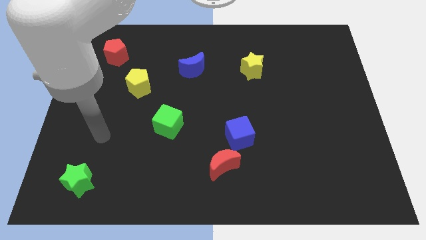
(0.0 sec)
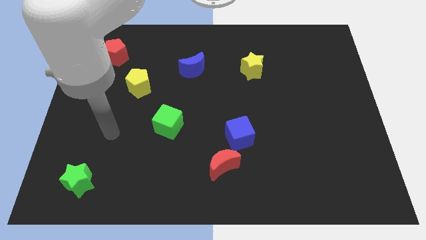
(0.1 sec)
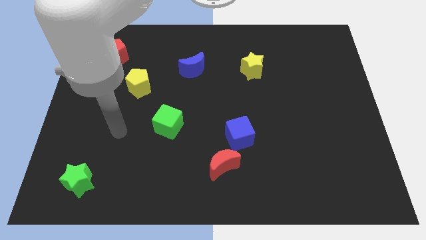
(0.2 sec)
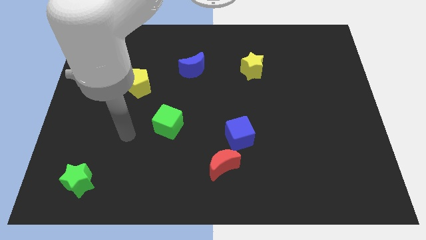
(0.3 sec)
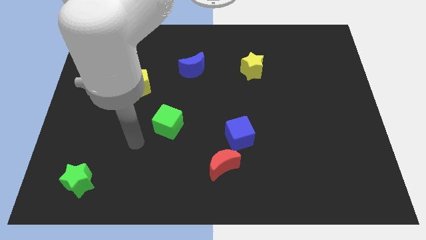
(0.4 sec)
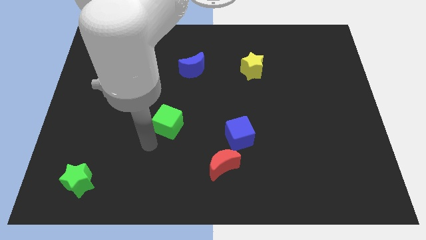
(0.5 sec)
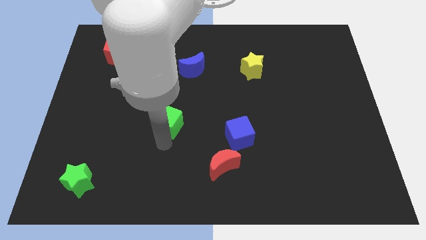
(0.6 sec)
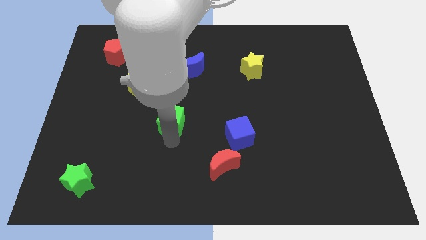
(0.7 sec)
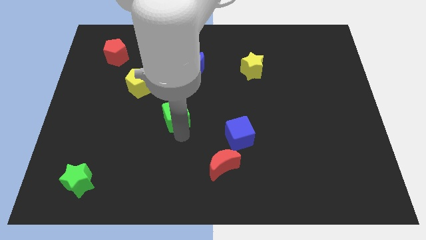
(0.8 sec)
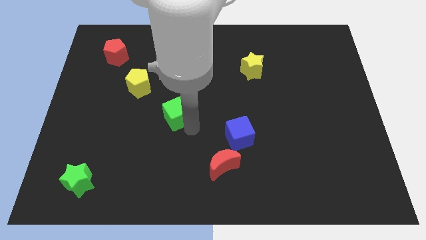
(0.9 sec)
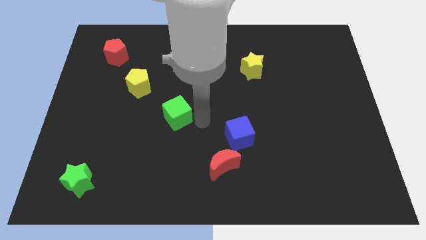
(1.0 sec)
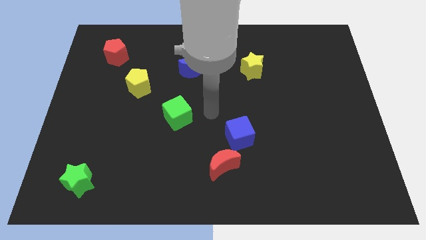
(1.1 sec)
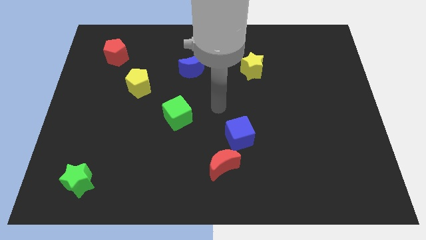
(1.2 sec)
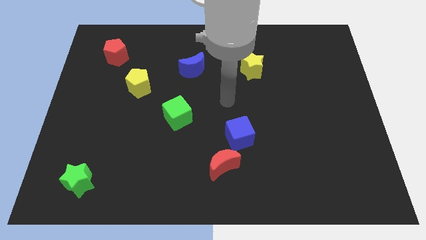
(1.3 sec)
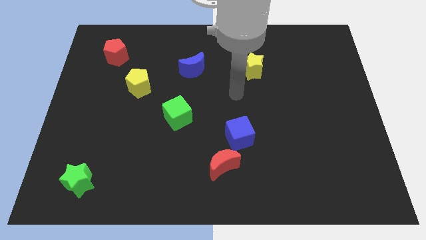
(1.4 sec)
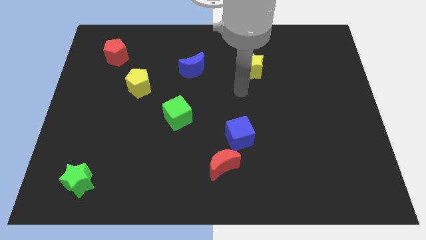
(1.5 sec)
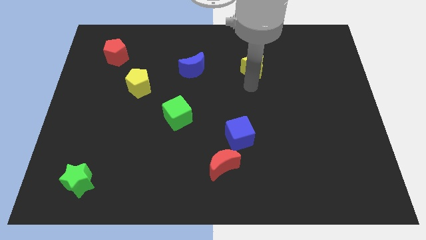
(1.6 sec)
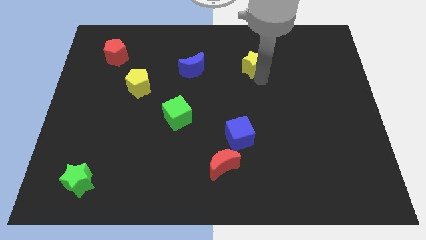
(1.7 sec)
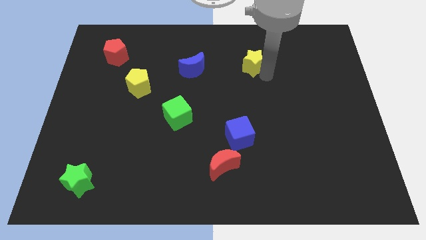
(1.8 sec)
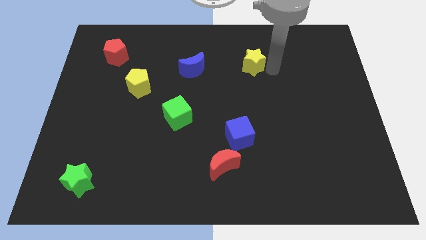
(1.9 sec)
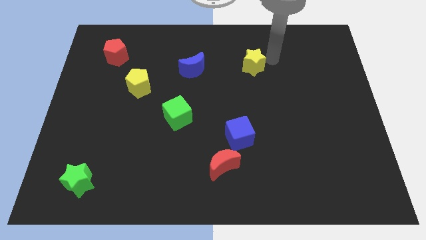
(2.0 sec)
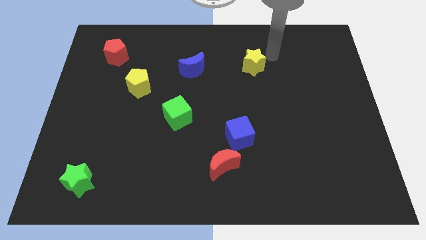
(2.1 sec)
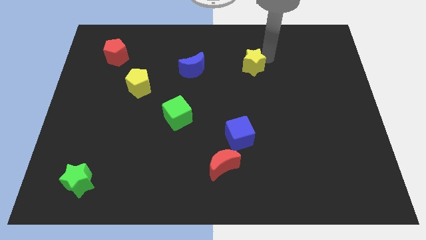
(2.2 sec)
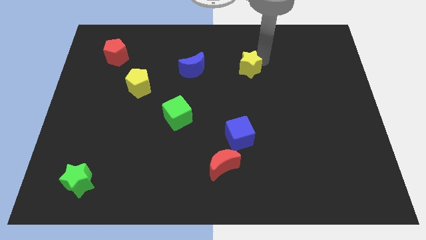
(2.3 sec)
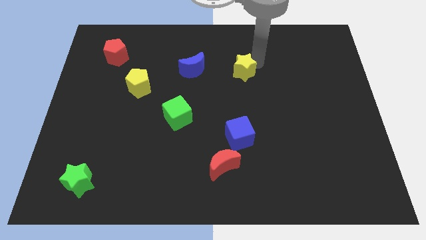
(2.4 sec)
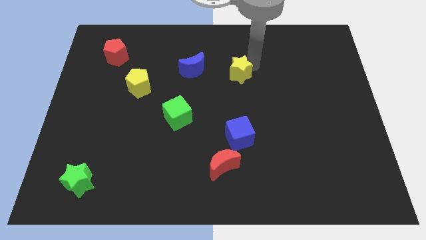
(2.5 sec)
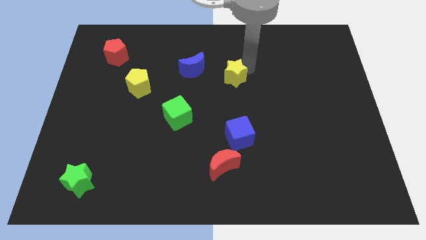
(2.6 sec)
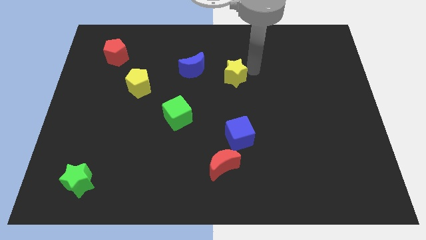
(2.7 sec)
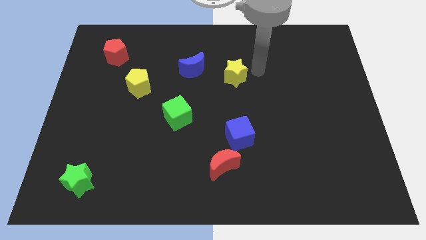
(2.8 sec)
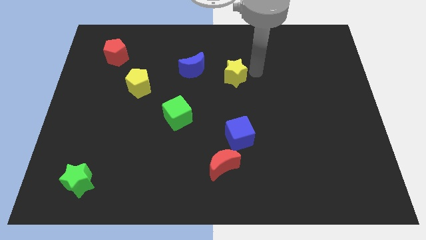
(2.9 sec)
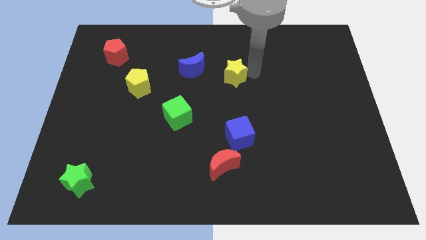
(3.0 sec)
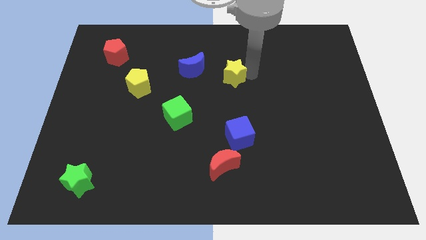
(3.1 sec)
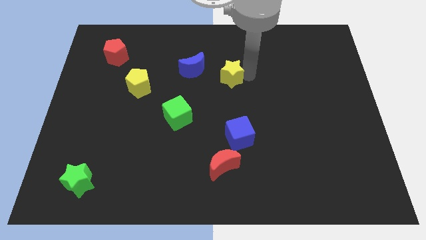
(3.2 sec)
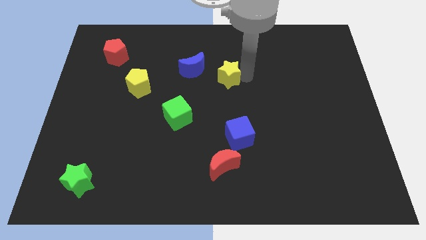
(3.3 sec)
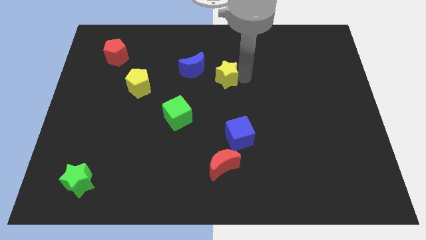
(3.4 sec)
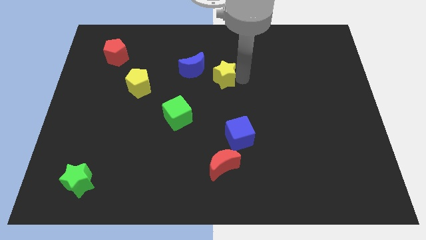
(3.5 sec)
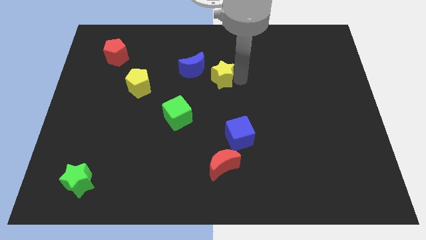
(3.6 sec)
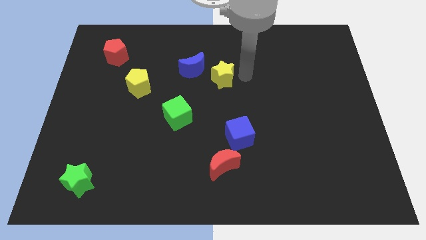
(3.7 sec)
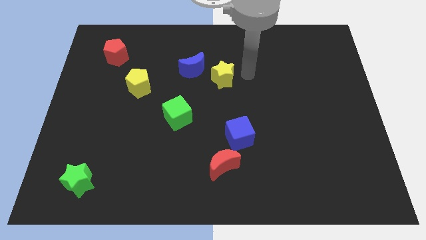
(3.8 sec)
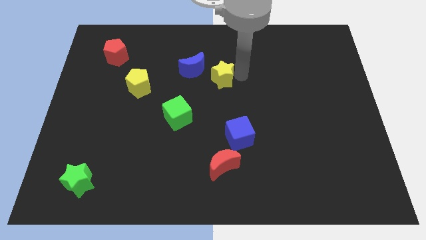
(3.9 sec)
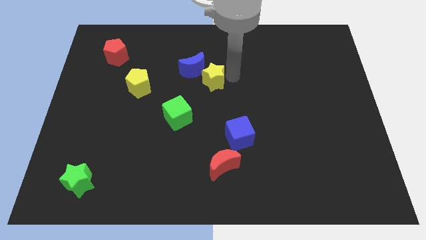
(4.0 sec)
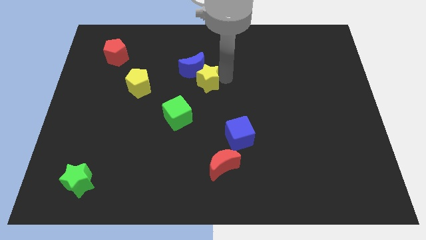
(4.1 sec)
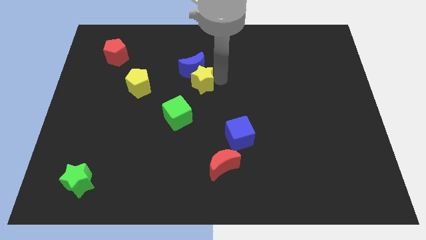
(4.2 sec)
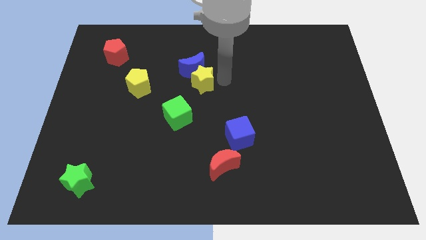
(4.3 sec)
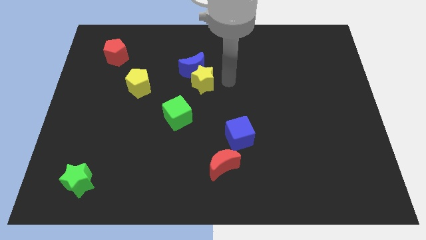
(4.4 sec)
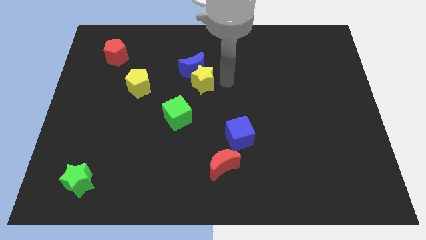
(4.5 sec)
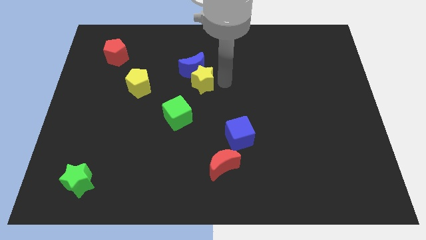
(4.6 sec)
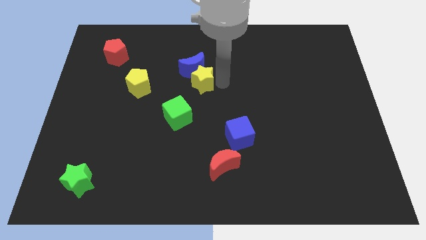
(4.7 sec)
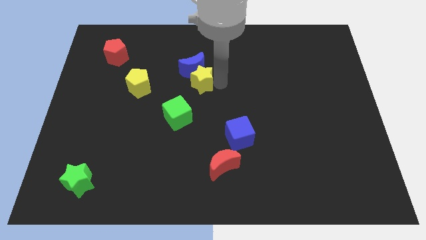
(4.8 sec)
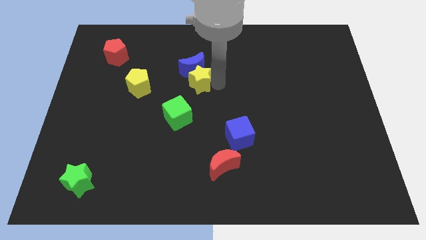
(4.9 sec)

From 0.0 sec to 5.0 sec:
move the yellow star to the bottom left side of the blue moon

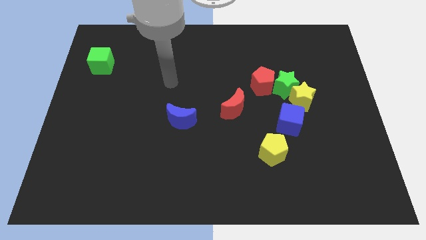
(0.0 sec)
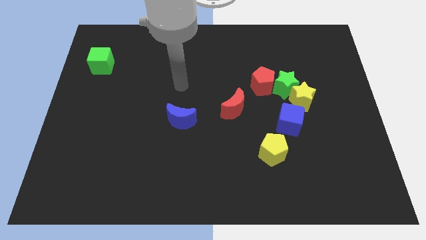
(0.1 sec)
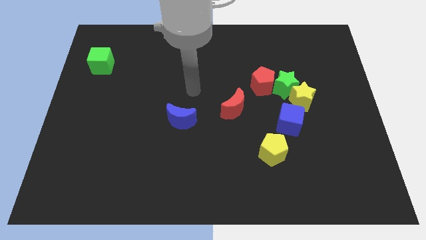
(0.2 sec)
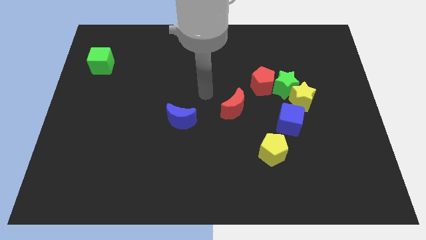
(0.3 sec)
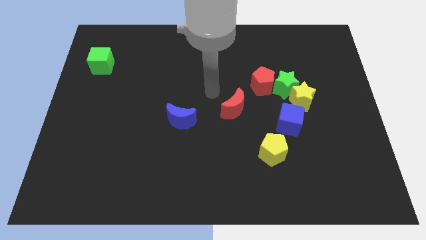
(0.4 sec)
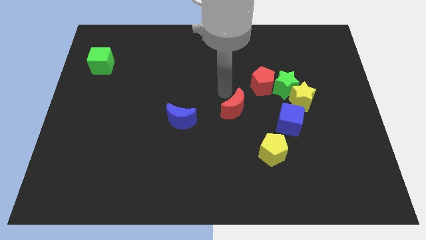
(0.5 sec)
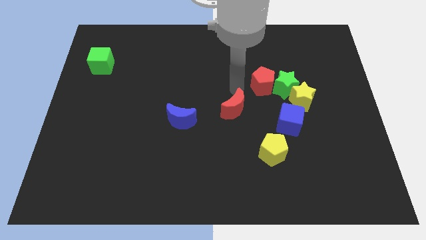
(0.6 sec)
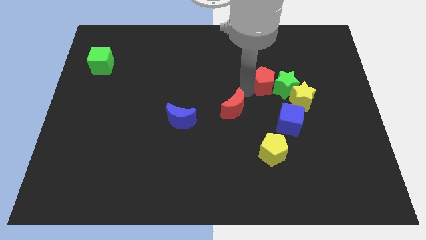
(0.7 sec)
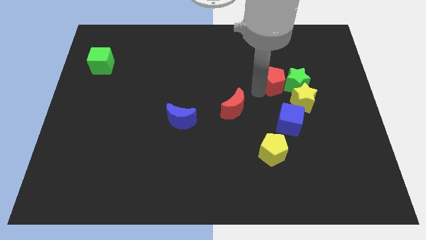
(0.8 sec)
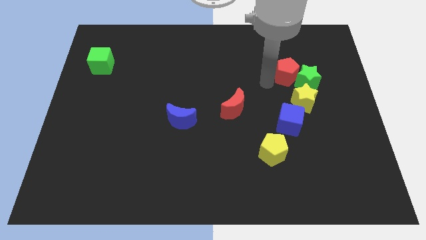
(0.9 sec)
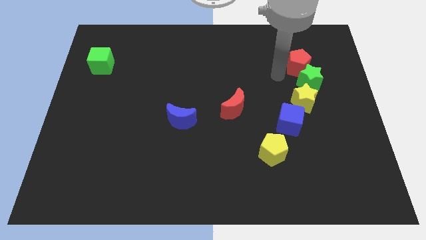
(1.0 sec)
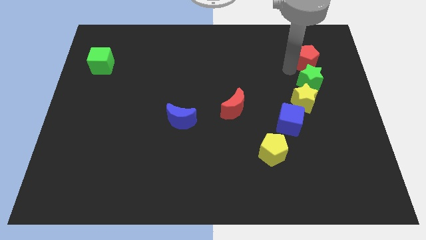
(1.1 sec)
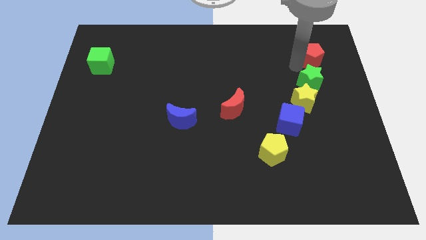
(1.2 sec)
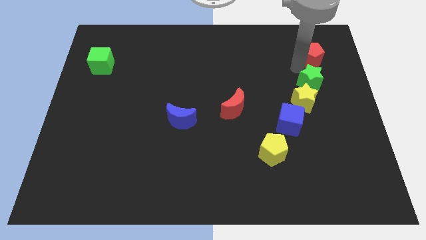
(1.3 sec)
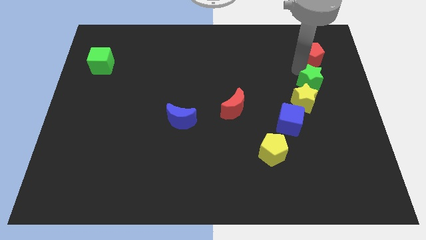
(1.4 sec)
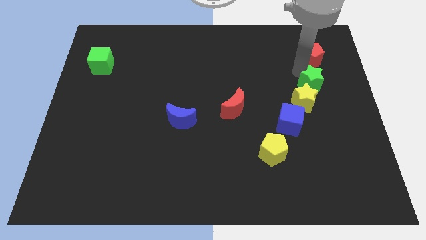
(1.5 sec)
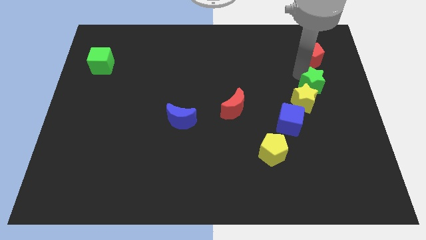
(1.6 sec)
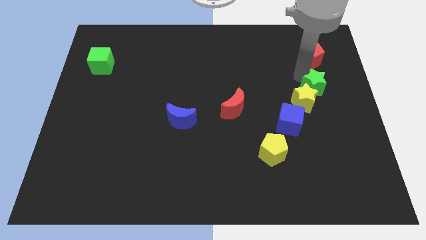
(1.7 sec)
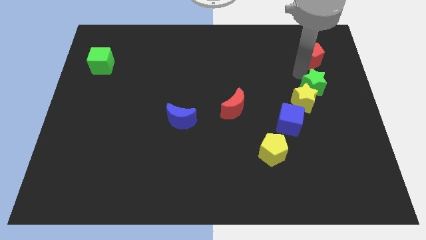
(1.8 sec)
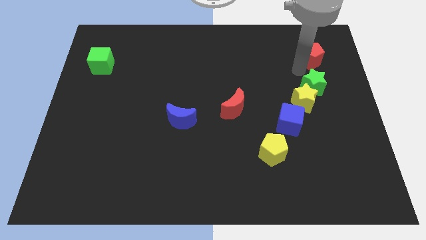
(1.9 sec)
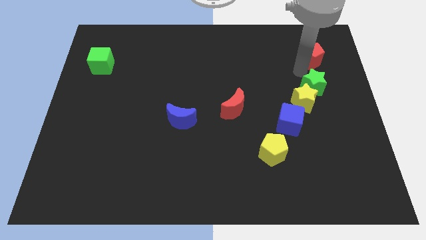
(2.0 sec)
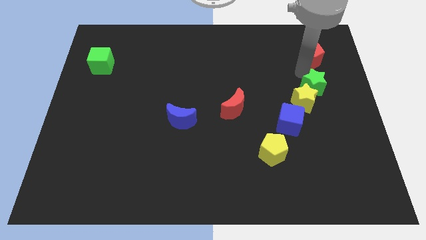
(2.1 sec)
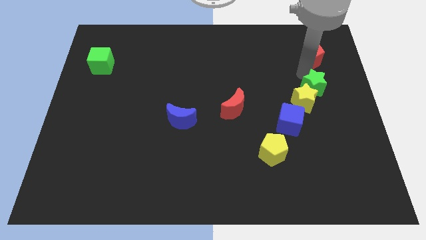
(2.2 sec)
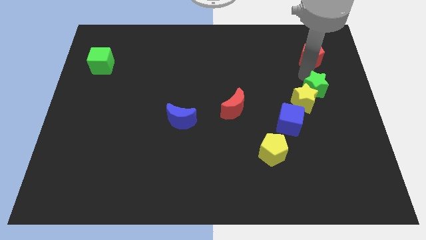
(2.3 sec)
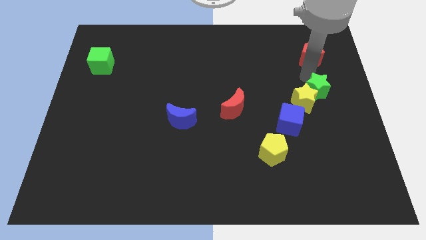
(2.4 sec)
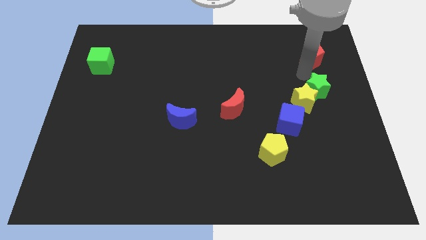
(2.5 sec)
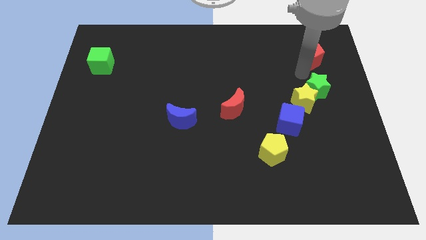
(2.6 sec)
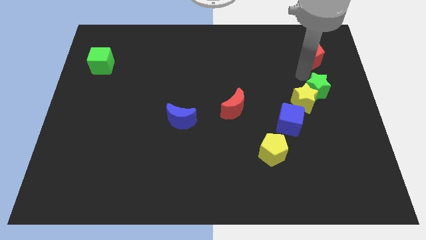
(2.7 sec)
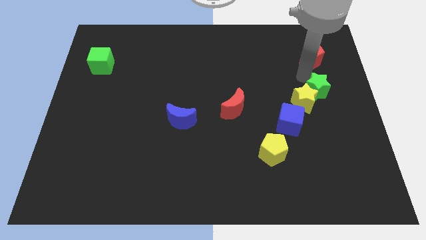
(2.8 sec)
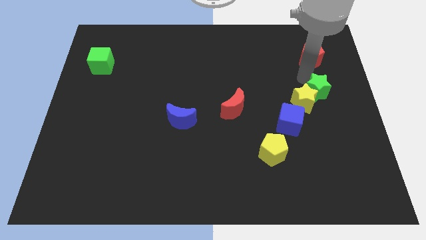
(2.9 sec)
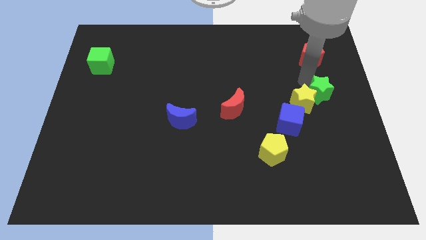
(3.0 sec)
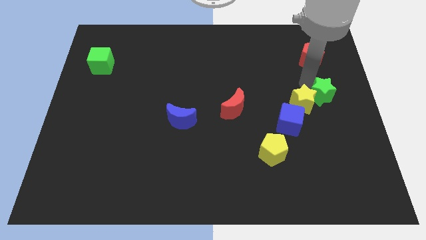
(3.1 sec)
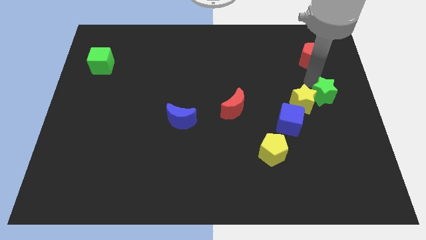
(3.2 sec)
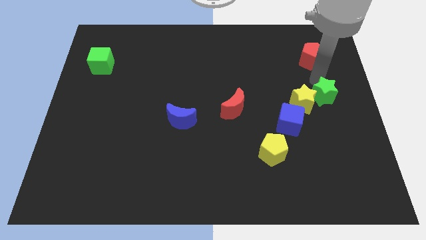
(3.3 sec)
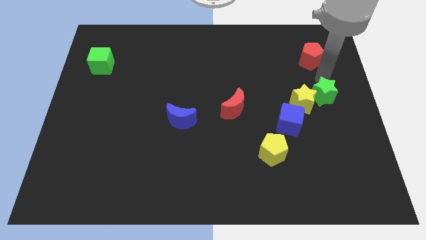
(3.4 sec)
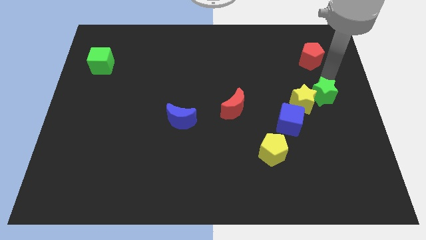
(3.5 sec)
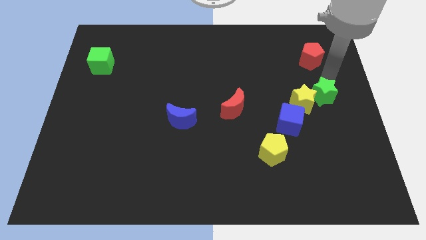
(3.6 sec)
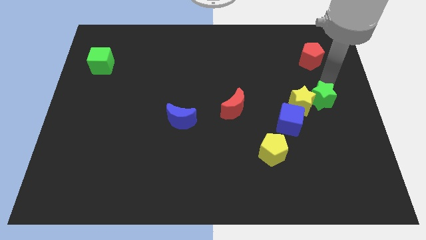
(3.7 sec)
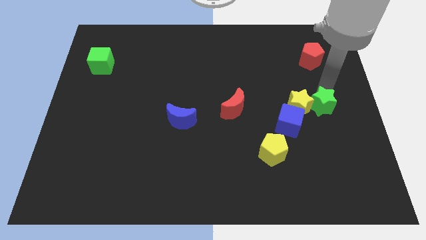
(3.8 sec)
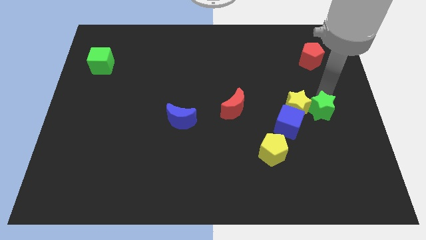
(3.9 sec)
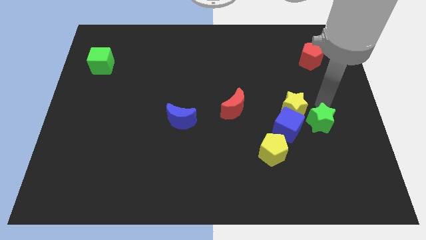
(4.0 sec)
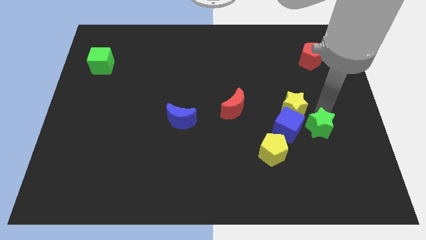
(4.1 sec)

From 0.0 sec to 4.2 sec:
put the green star below the yellow star
